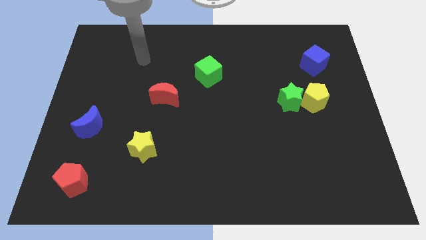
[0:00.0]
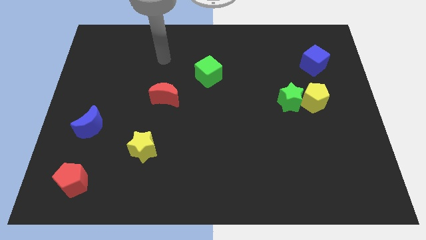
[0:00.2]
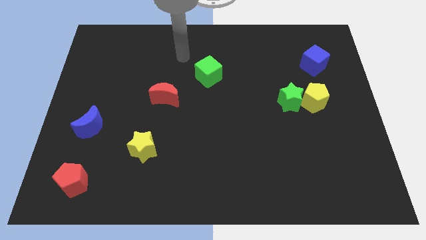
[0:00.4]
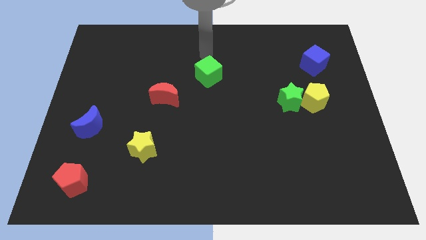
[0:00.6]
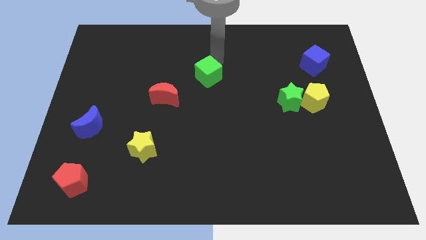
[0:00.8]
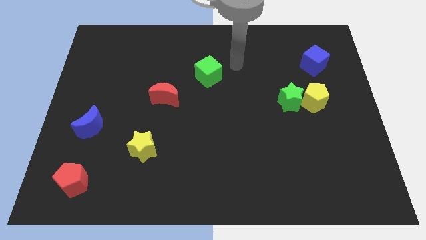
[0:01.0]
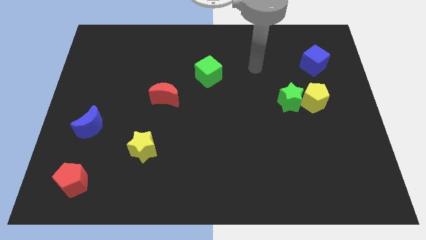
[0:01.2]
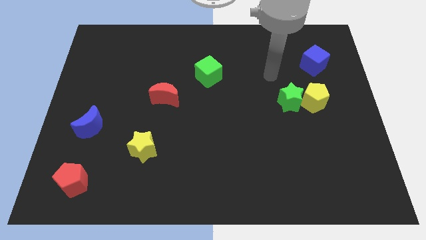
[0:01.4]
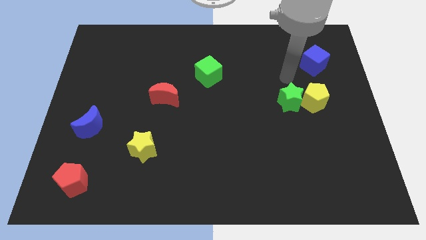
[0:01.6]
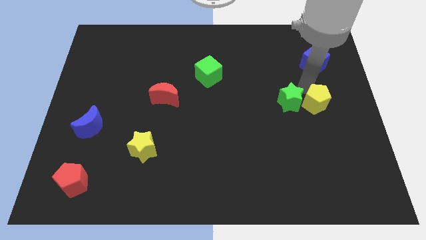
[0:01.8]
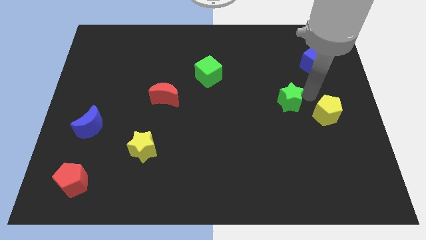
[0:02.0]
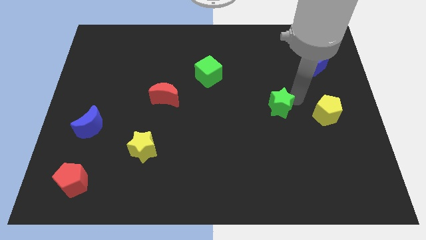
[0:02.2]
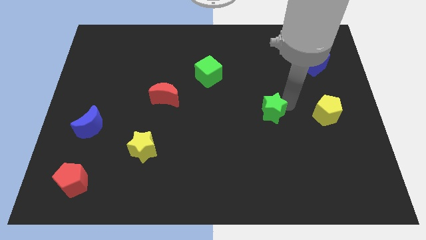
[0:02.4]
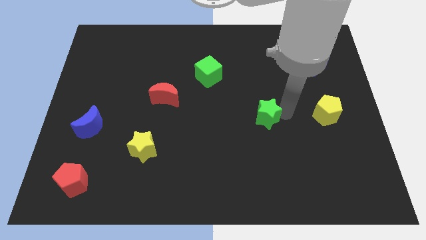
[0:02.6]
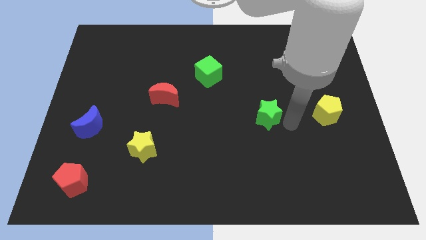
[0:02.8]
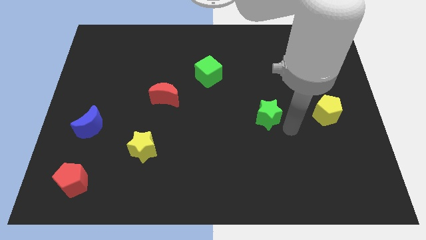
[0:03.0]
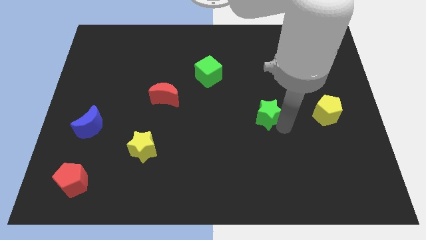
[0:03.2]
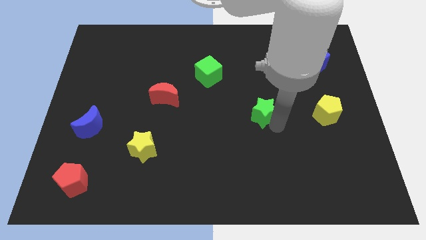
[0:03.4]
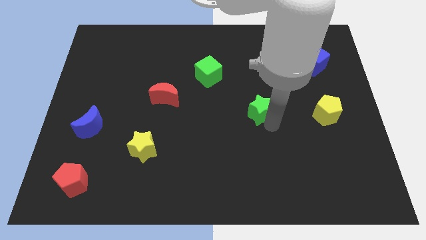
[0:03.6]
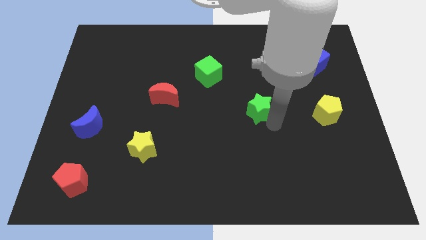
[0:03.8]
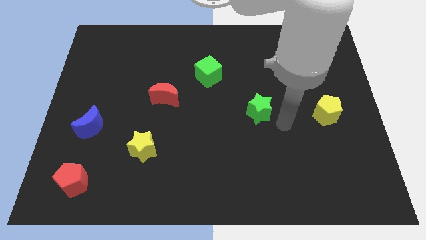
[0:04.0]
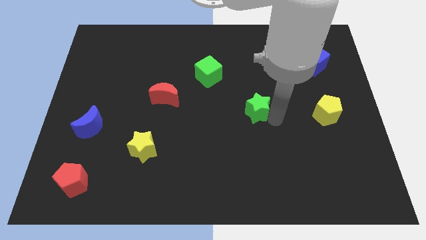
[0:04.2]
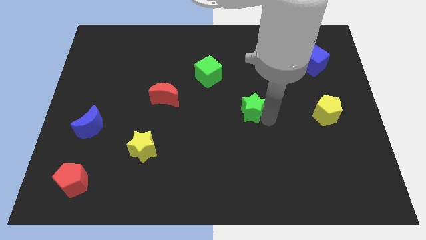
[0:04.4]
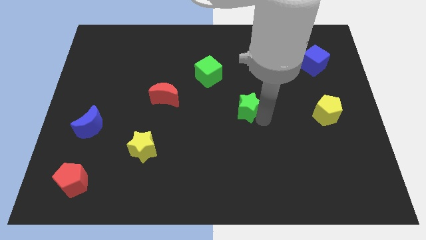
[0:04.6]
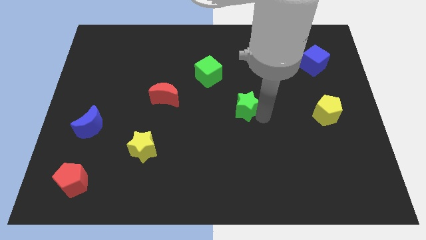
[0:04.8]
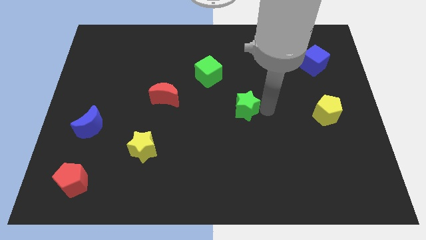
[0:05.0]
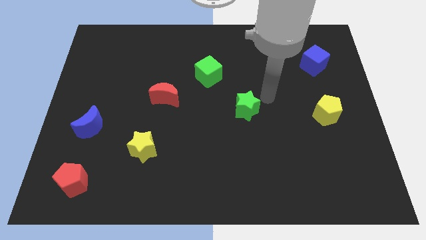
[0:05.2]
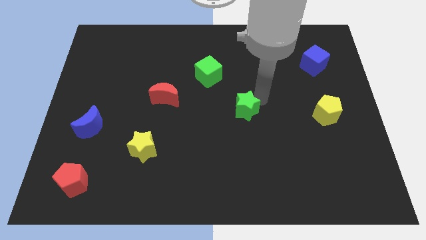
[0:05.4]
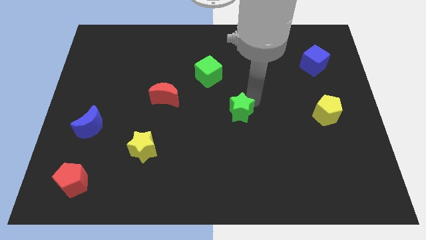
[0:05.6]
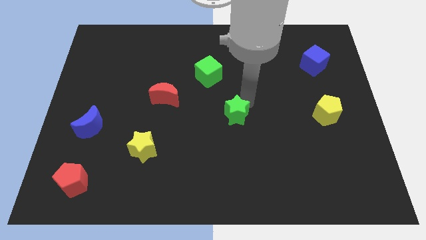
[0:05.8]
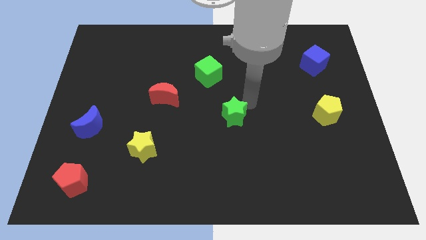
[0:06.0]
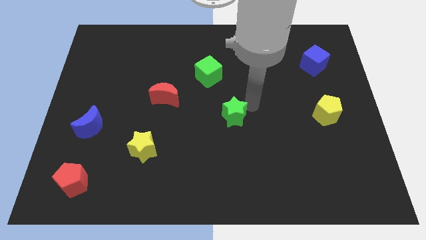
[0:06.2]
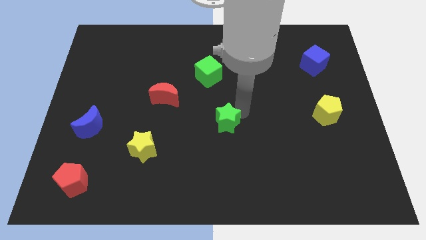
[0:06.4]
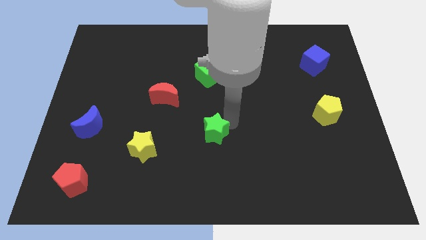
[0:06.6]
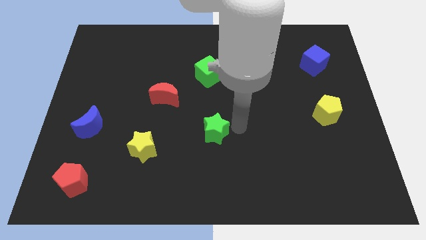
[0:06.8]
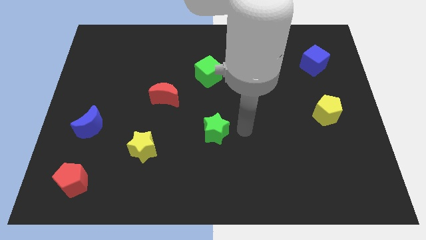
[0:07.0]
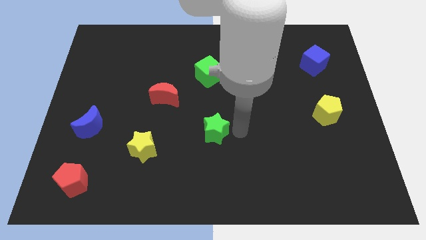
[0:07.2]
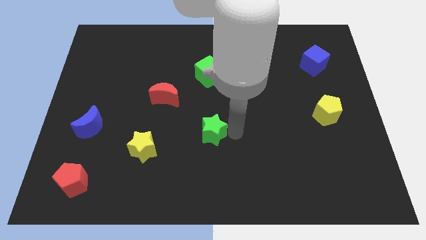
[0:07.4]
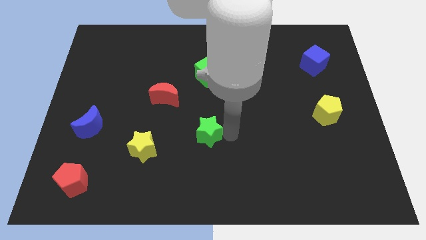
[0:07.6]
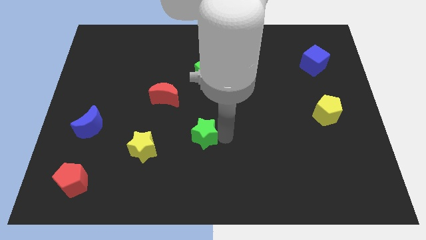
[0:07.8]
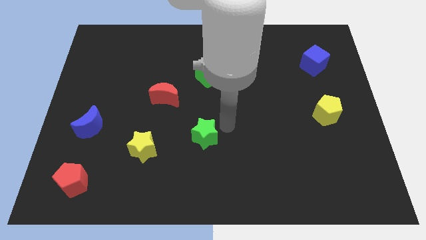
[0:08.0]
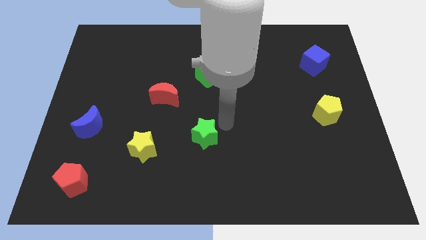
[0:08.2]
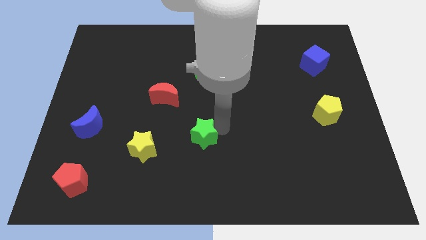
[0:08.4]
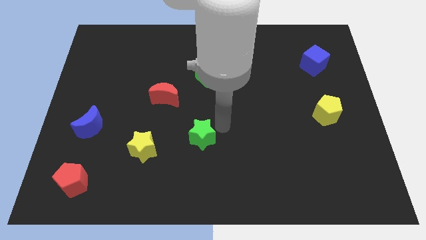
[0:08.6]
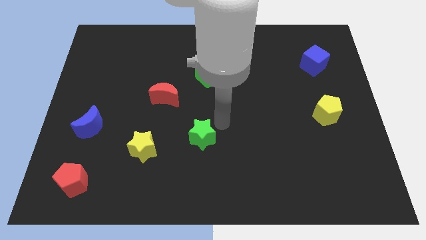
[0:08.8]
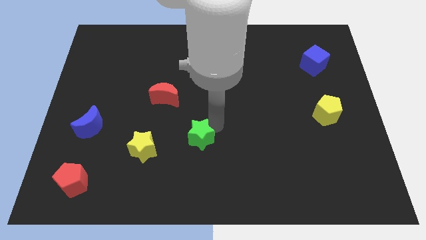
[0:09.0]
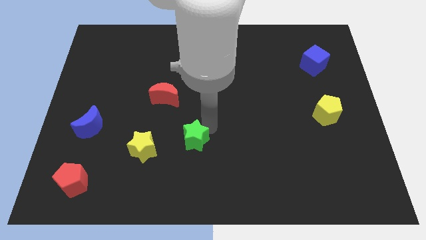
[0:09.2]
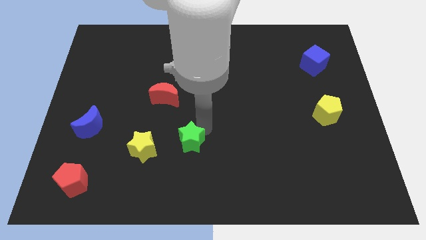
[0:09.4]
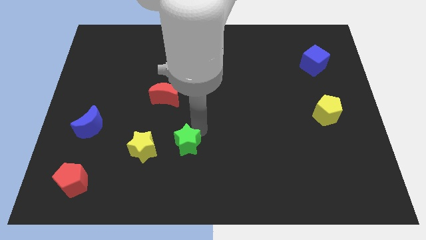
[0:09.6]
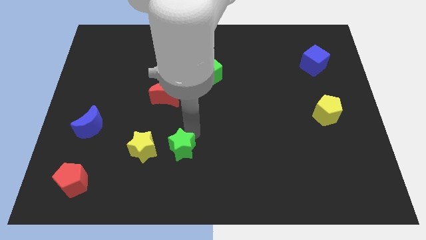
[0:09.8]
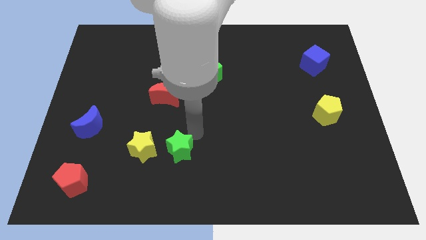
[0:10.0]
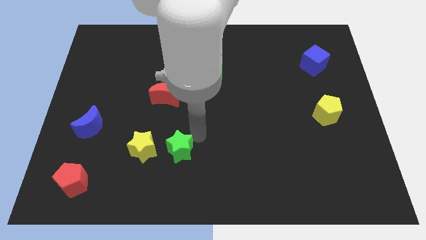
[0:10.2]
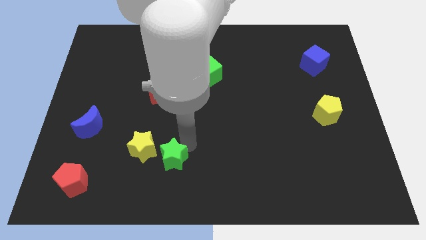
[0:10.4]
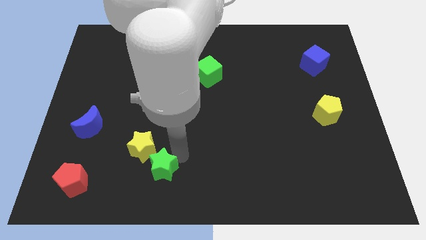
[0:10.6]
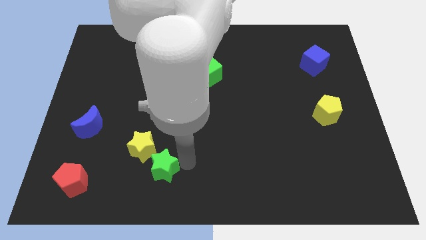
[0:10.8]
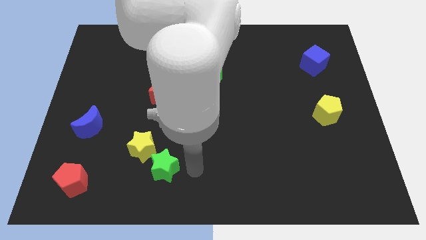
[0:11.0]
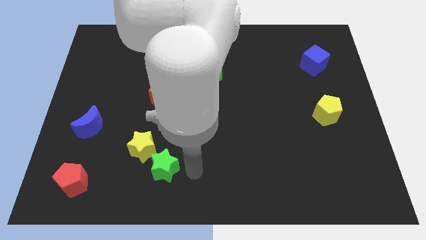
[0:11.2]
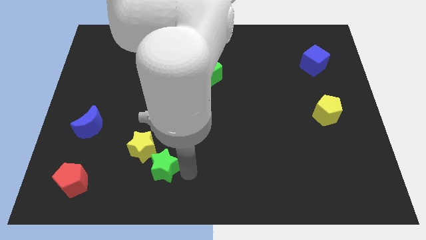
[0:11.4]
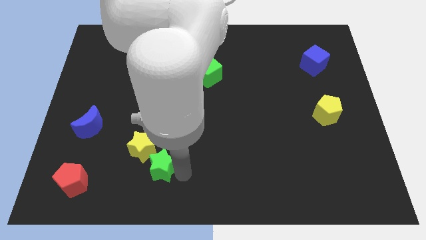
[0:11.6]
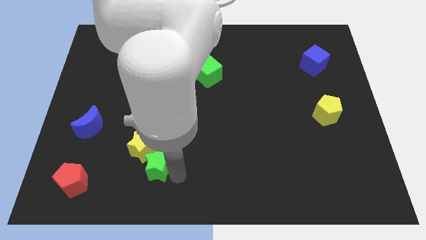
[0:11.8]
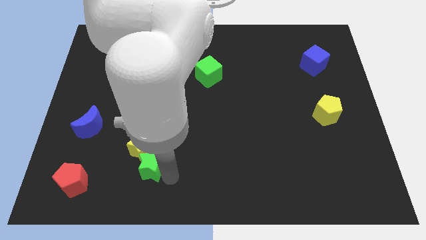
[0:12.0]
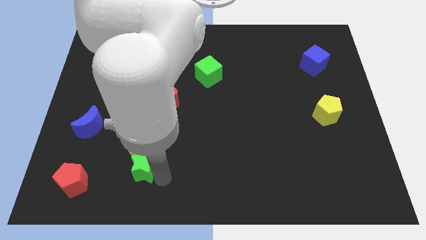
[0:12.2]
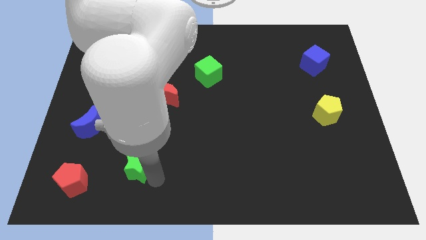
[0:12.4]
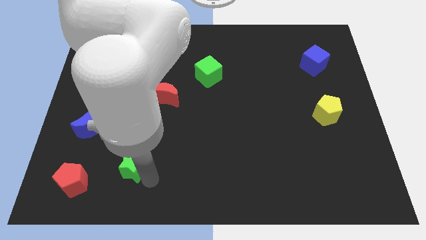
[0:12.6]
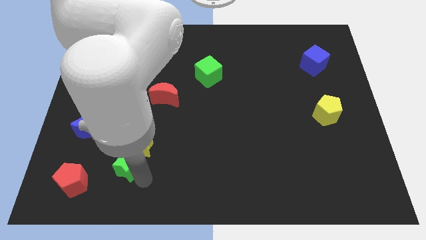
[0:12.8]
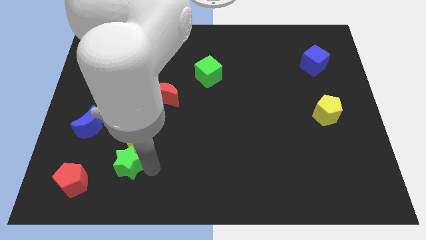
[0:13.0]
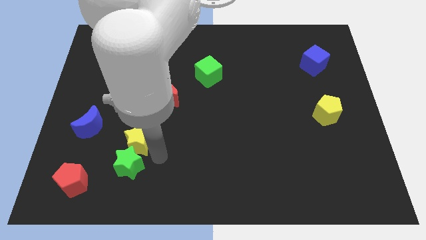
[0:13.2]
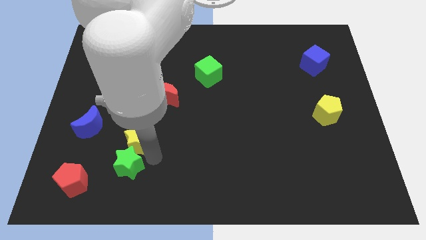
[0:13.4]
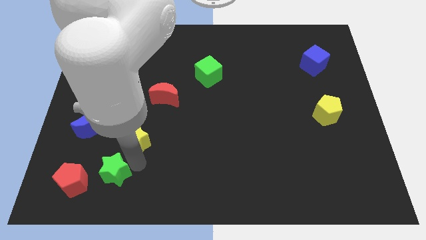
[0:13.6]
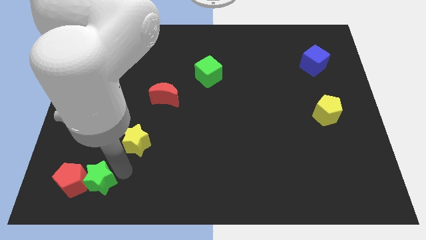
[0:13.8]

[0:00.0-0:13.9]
put the green star next to the red pentagon
